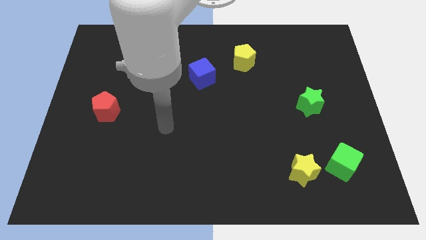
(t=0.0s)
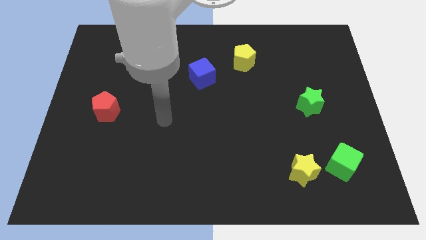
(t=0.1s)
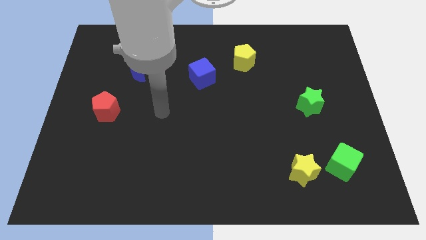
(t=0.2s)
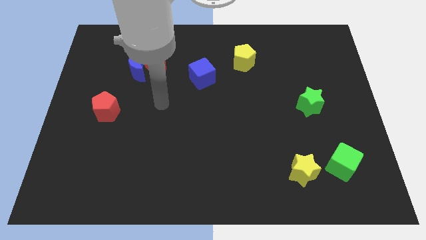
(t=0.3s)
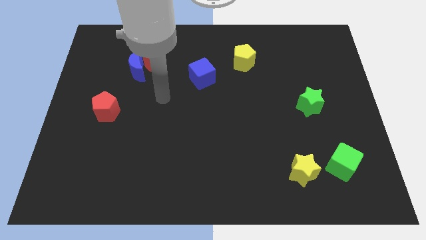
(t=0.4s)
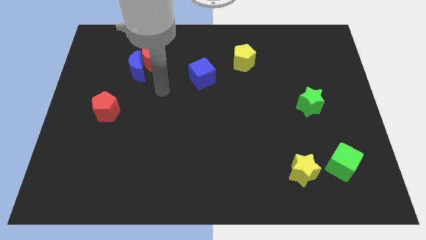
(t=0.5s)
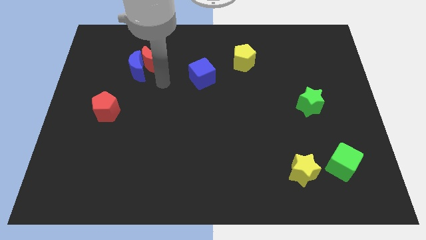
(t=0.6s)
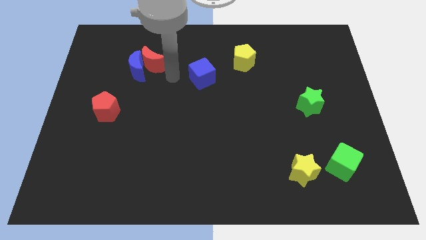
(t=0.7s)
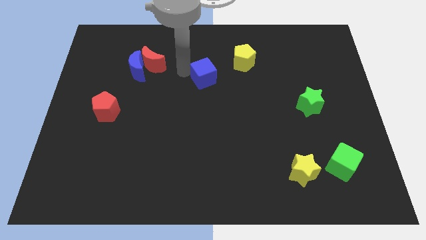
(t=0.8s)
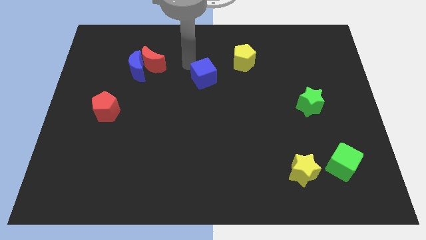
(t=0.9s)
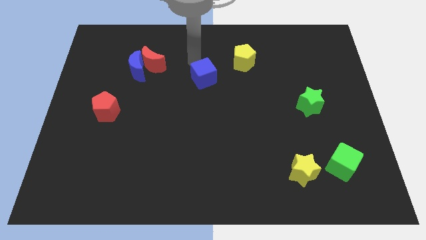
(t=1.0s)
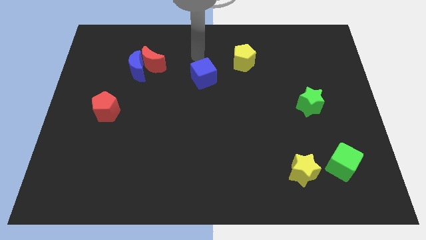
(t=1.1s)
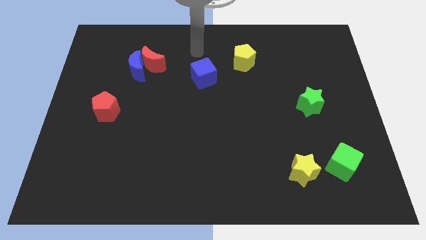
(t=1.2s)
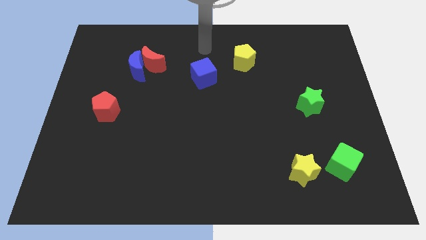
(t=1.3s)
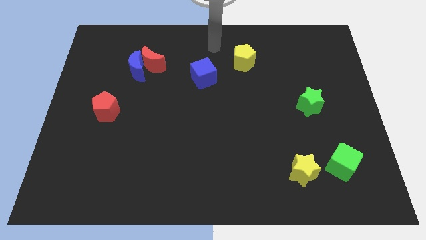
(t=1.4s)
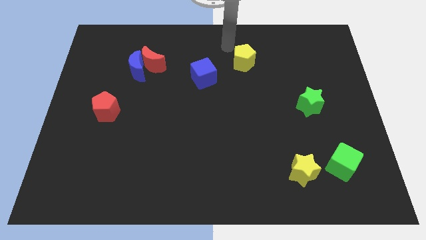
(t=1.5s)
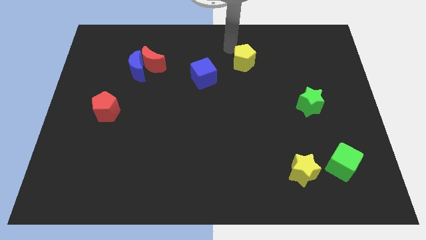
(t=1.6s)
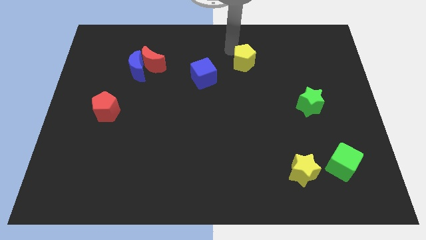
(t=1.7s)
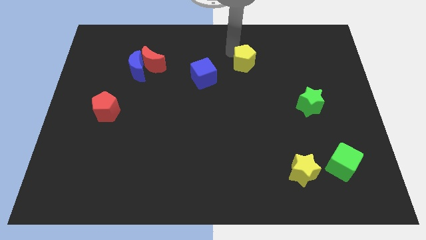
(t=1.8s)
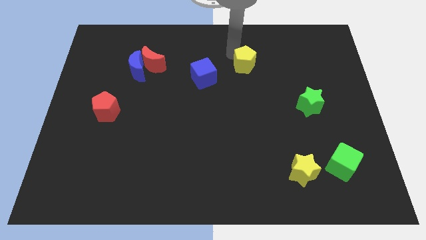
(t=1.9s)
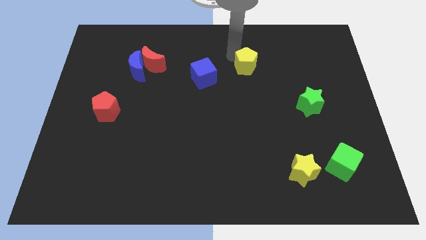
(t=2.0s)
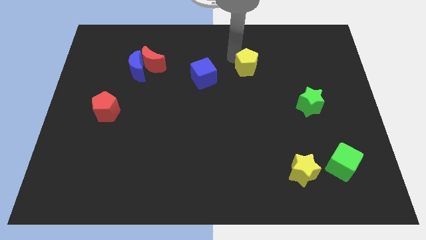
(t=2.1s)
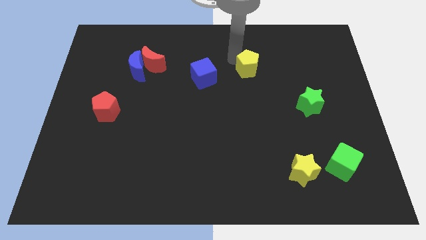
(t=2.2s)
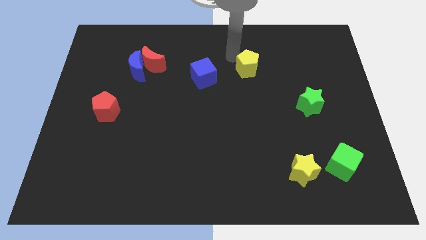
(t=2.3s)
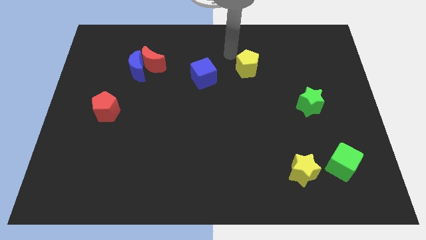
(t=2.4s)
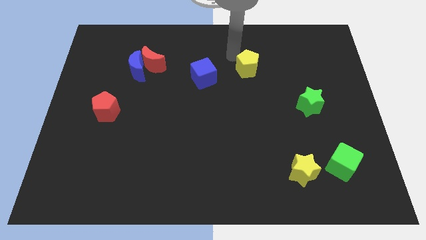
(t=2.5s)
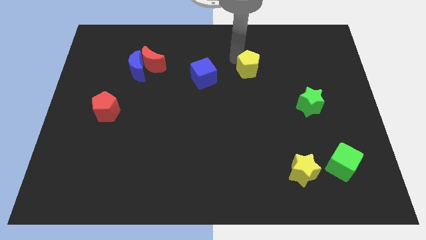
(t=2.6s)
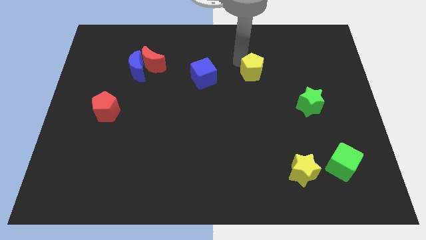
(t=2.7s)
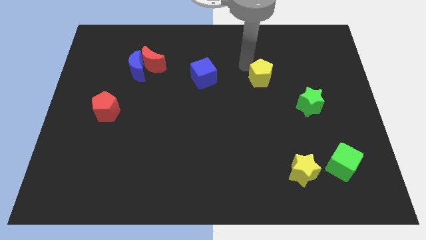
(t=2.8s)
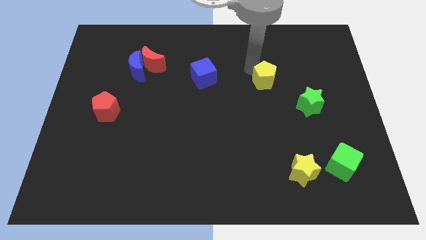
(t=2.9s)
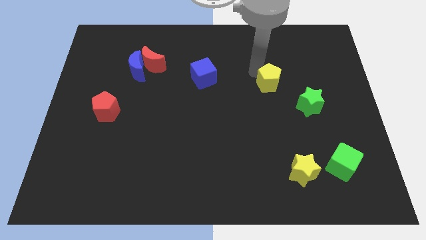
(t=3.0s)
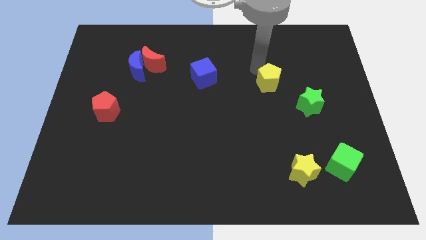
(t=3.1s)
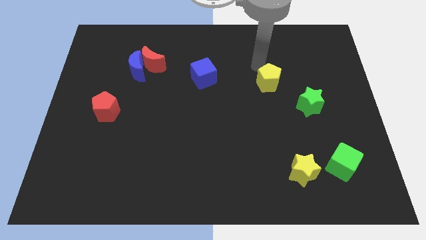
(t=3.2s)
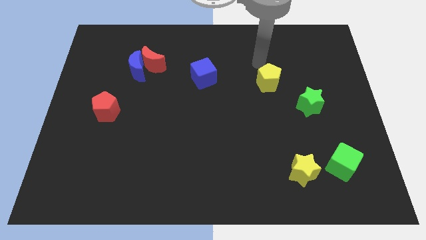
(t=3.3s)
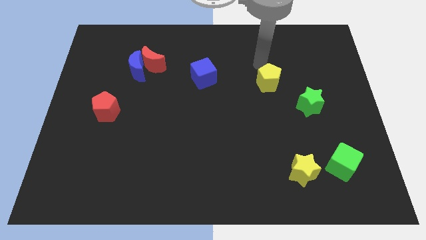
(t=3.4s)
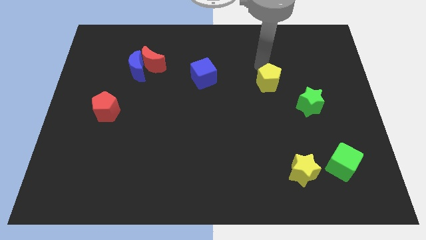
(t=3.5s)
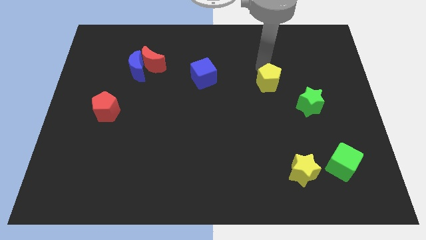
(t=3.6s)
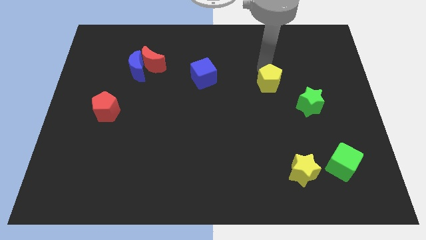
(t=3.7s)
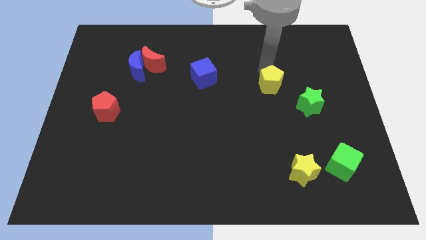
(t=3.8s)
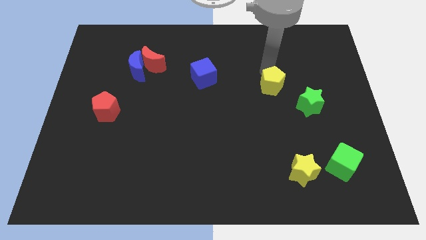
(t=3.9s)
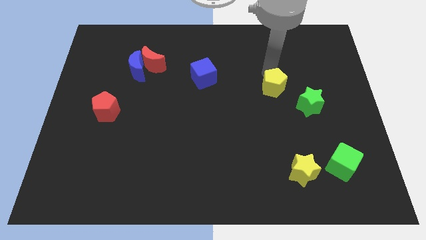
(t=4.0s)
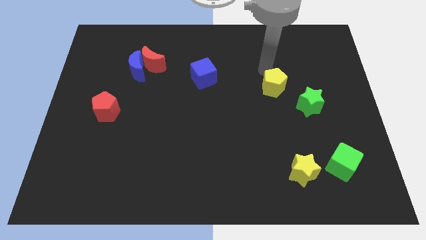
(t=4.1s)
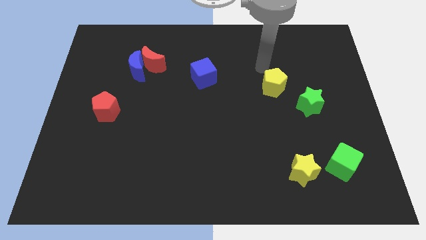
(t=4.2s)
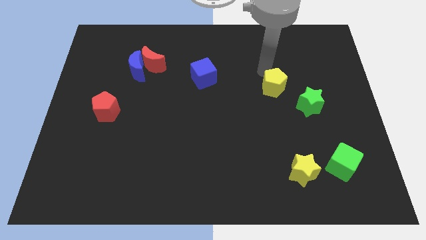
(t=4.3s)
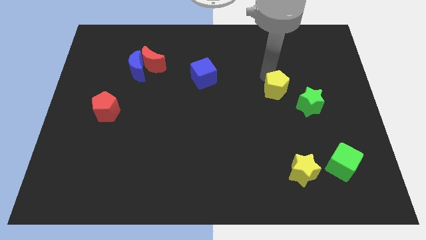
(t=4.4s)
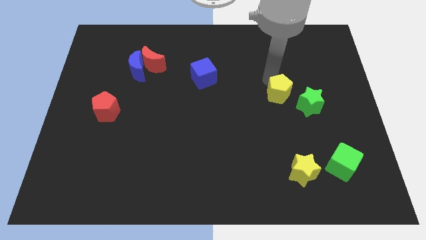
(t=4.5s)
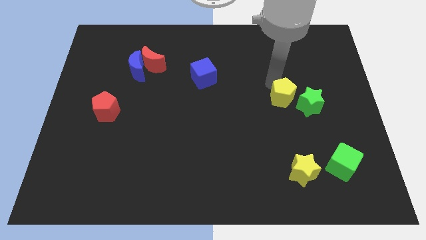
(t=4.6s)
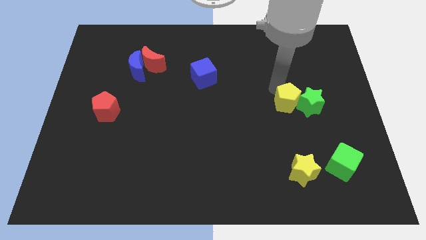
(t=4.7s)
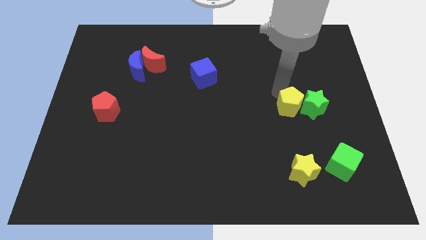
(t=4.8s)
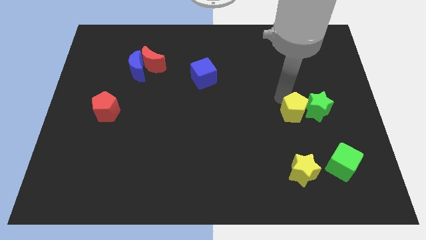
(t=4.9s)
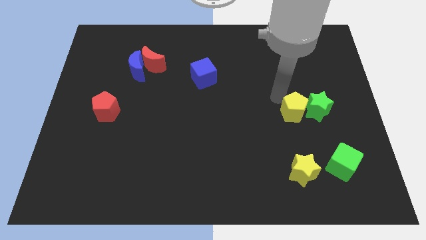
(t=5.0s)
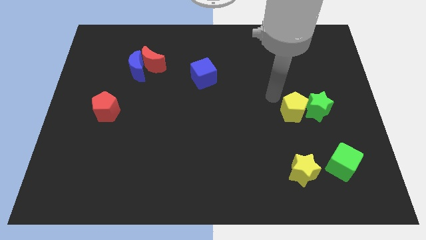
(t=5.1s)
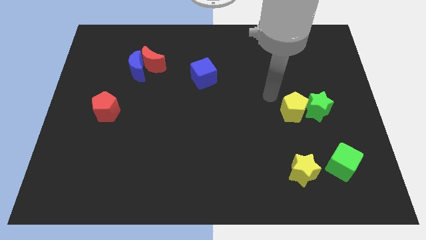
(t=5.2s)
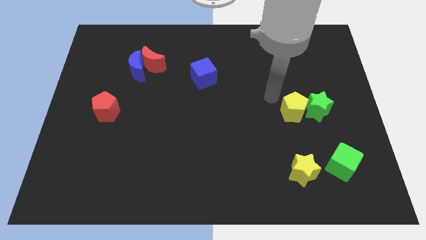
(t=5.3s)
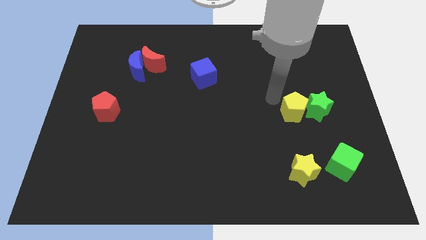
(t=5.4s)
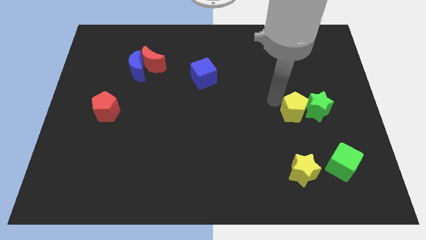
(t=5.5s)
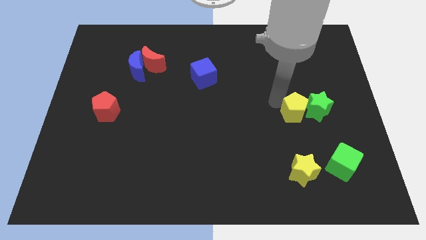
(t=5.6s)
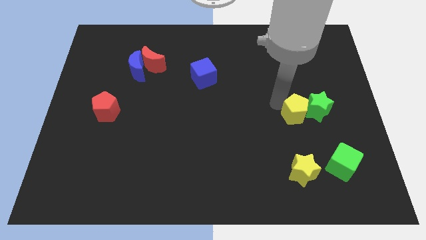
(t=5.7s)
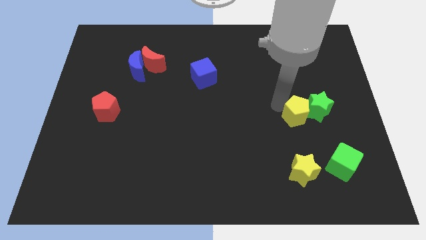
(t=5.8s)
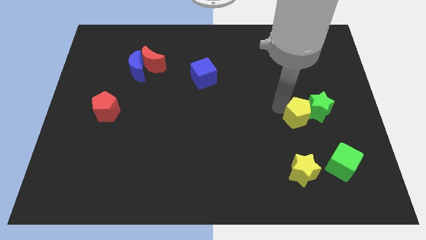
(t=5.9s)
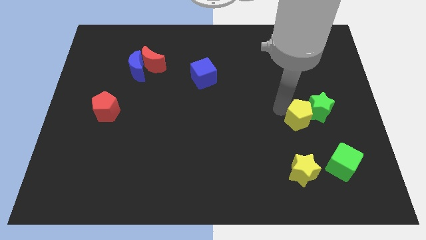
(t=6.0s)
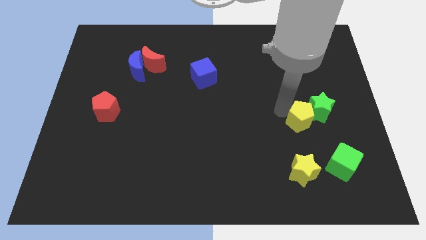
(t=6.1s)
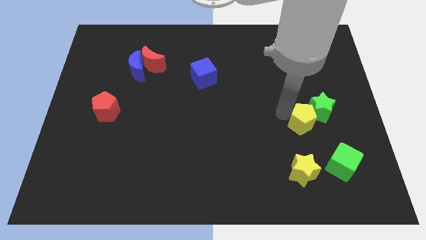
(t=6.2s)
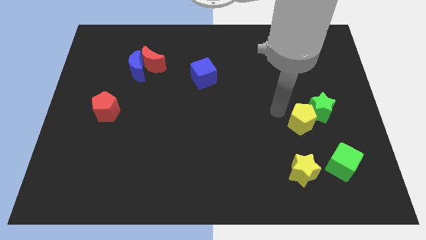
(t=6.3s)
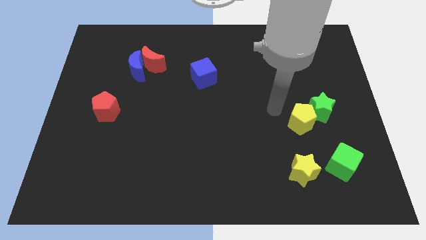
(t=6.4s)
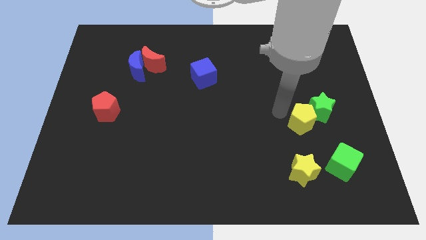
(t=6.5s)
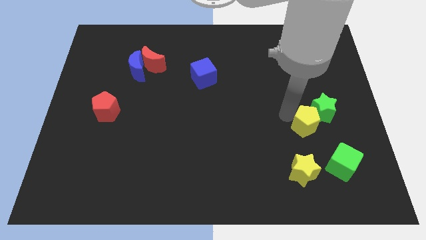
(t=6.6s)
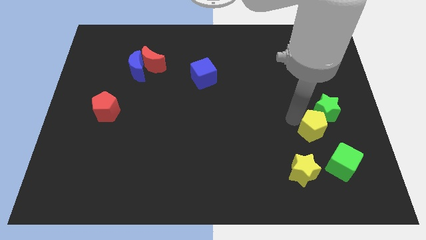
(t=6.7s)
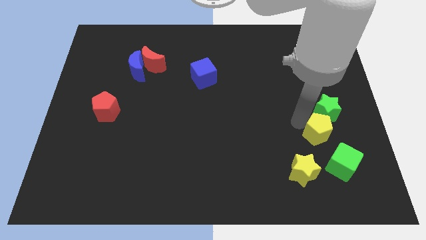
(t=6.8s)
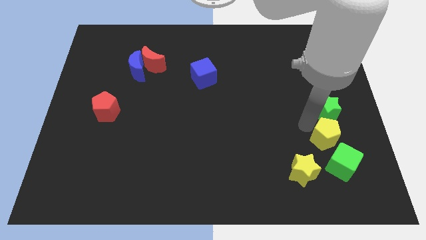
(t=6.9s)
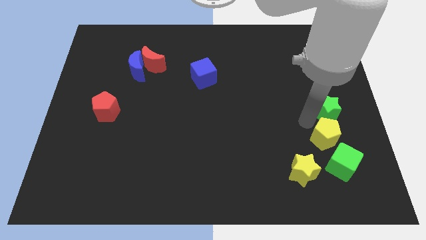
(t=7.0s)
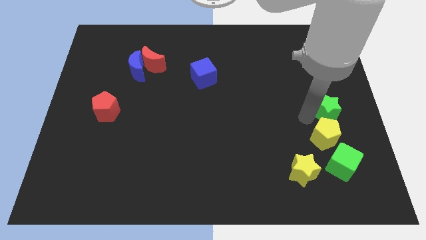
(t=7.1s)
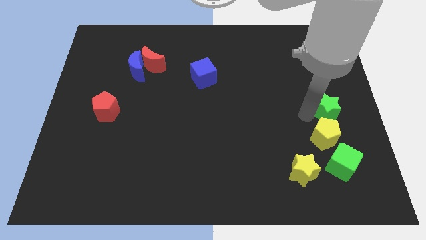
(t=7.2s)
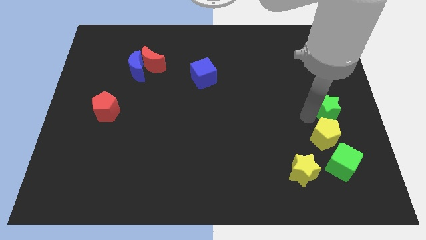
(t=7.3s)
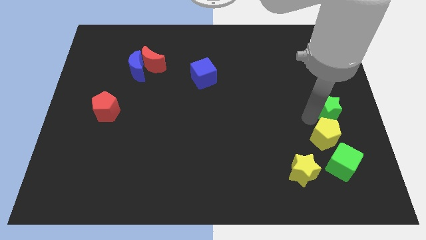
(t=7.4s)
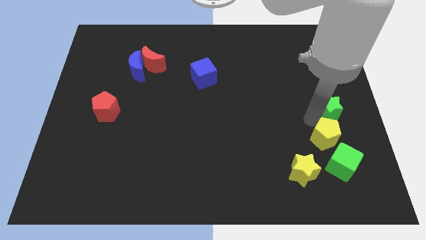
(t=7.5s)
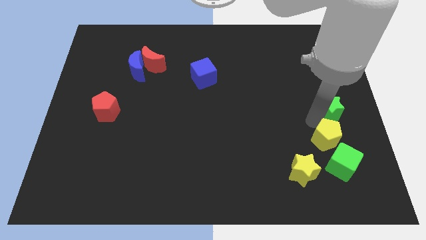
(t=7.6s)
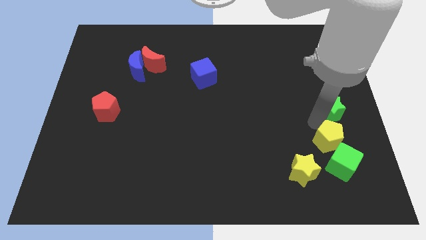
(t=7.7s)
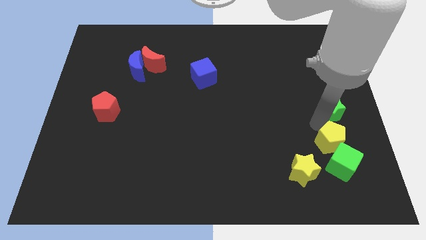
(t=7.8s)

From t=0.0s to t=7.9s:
put the yellow pentagon next to the green cube
